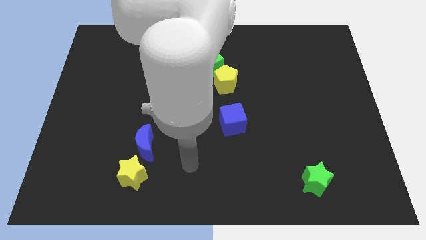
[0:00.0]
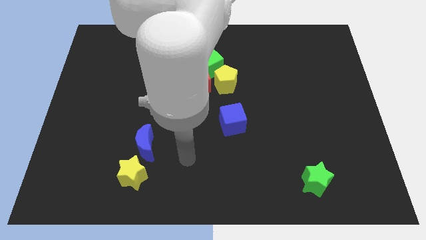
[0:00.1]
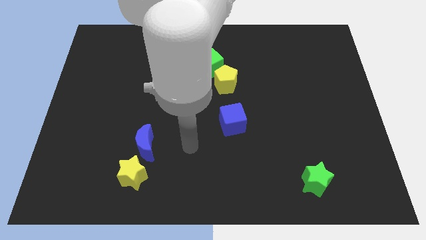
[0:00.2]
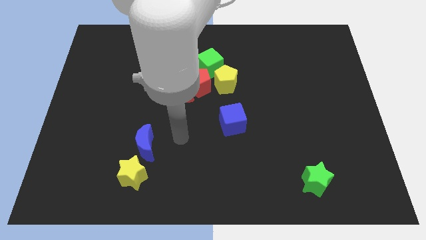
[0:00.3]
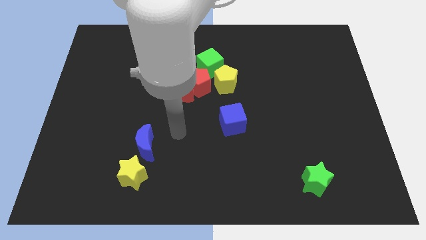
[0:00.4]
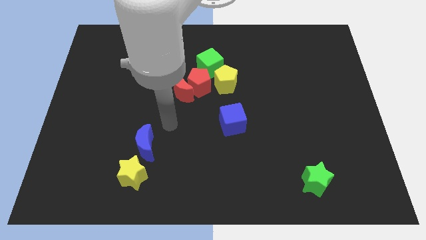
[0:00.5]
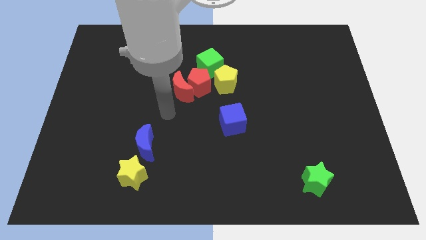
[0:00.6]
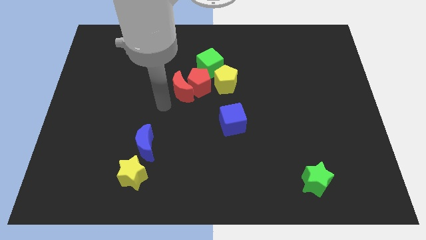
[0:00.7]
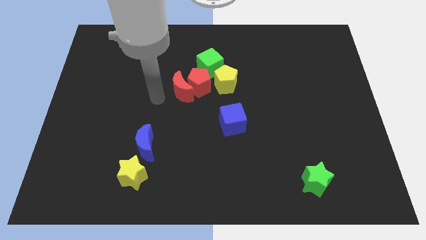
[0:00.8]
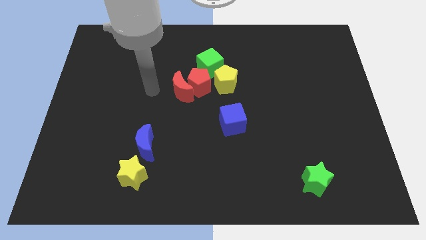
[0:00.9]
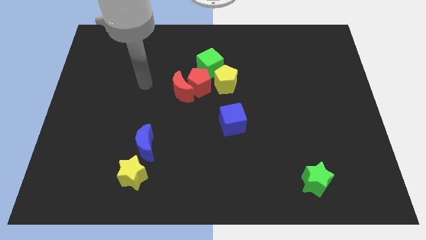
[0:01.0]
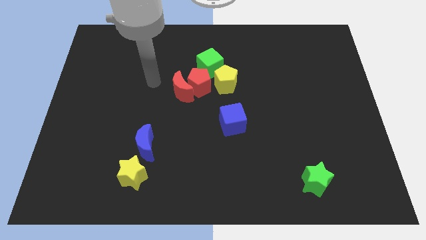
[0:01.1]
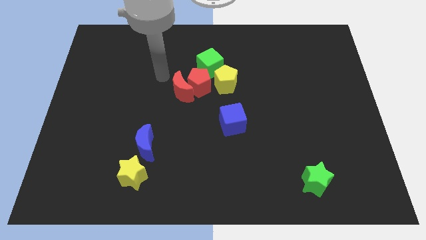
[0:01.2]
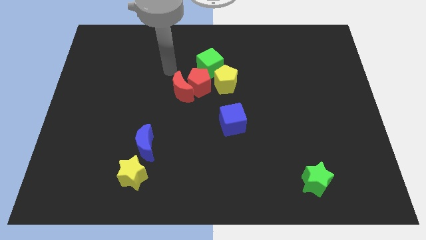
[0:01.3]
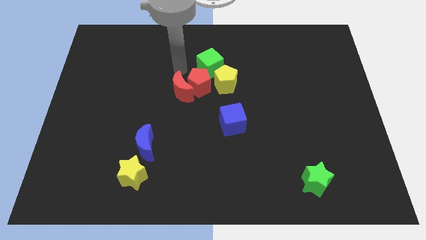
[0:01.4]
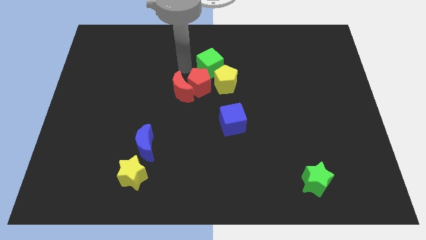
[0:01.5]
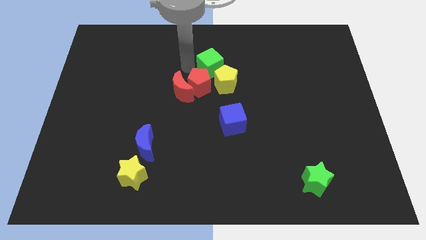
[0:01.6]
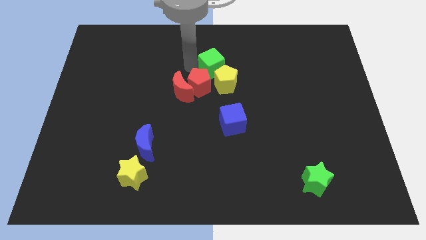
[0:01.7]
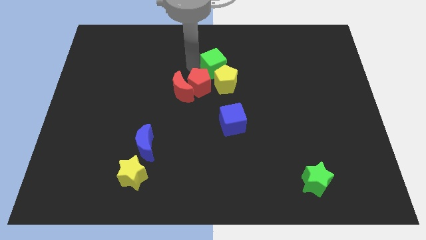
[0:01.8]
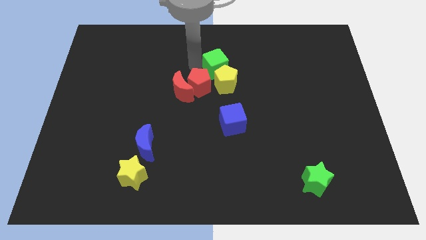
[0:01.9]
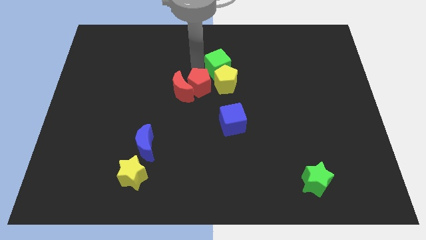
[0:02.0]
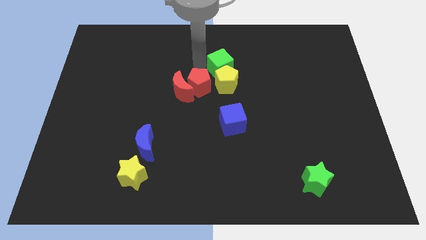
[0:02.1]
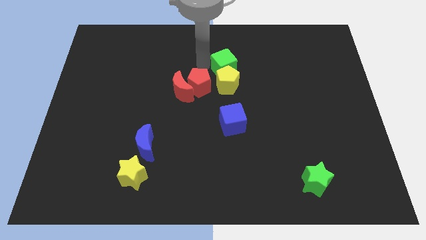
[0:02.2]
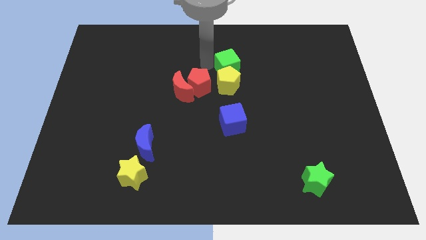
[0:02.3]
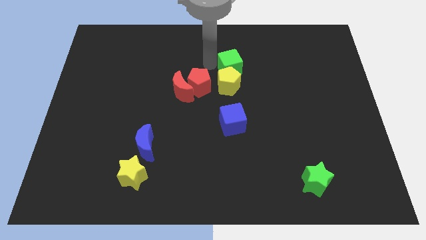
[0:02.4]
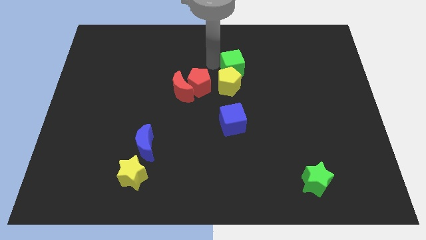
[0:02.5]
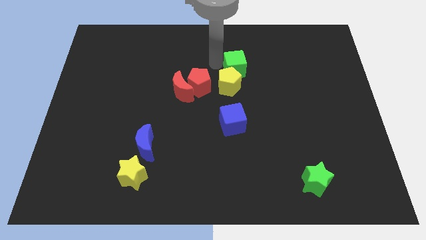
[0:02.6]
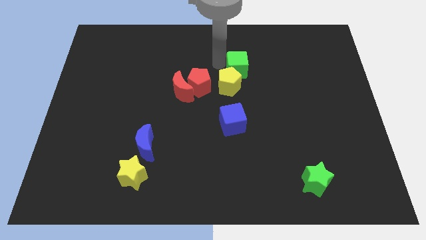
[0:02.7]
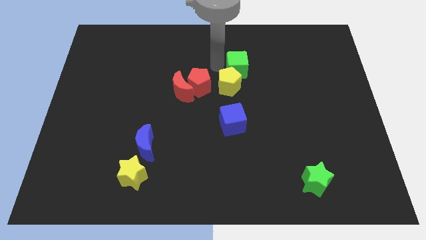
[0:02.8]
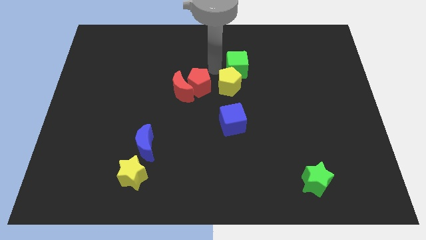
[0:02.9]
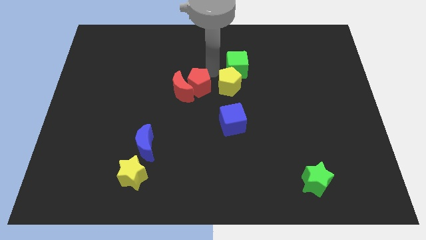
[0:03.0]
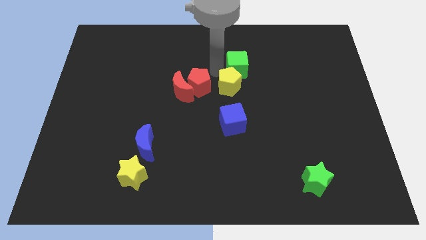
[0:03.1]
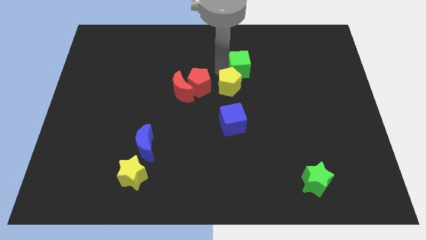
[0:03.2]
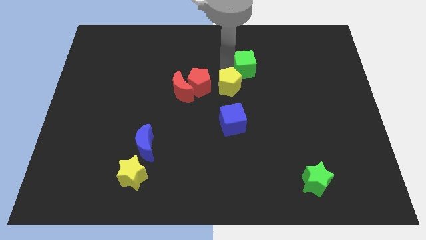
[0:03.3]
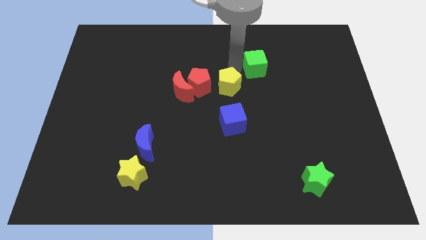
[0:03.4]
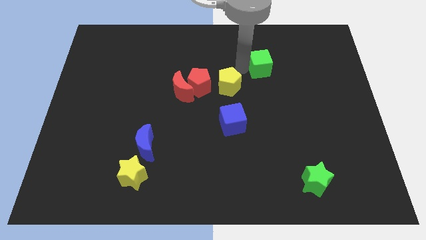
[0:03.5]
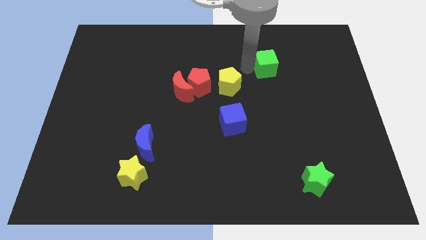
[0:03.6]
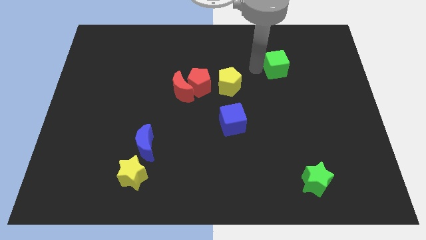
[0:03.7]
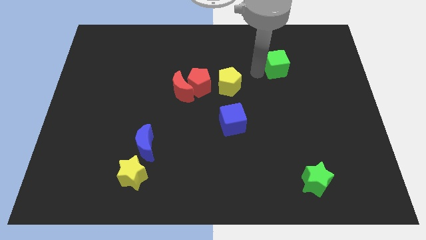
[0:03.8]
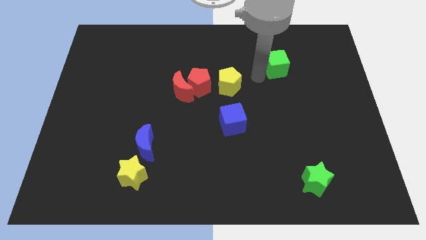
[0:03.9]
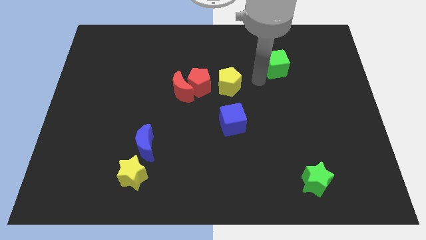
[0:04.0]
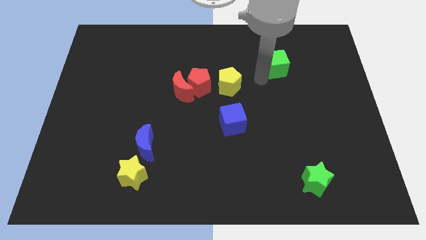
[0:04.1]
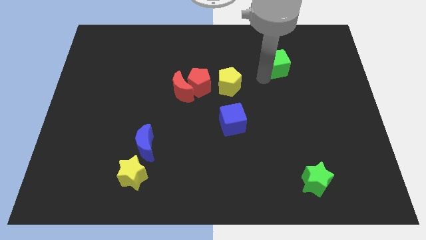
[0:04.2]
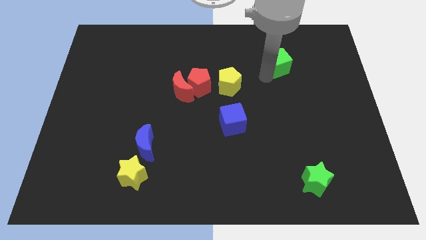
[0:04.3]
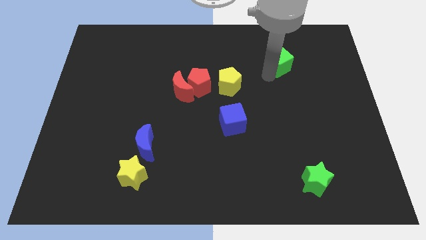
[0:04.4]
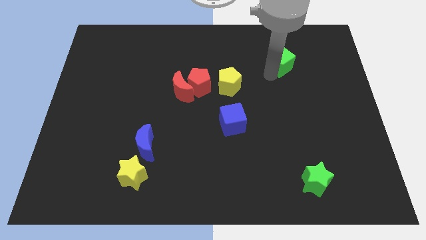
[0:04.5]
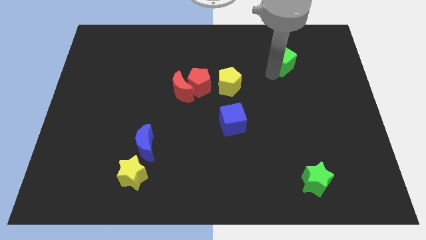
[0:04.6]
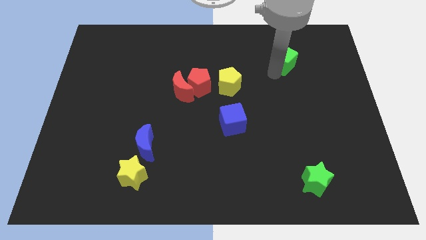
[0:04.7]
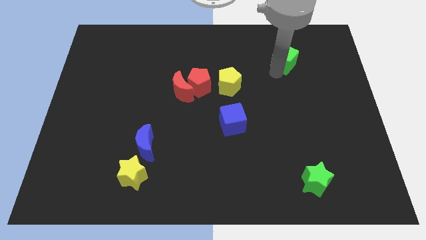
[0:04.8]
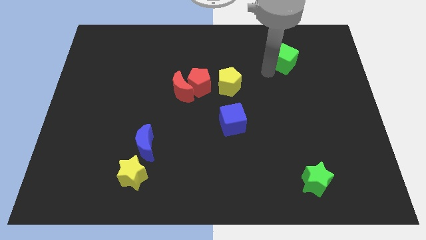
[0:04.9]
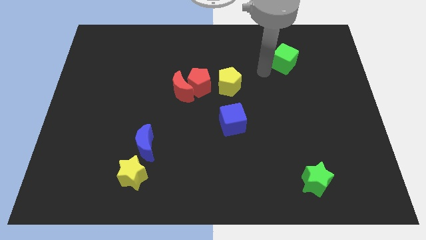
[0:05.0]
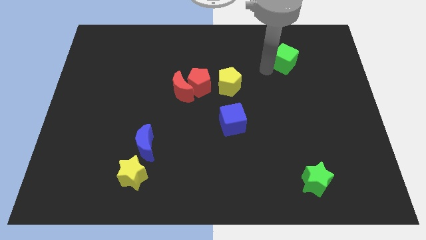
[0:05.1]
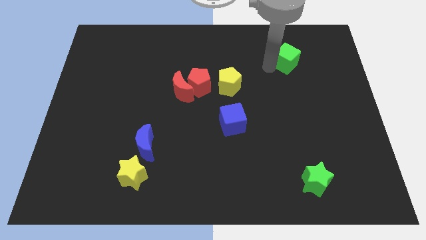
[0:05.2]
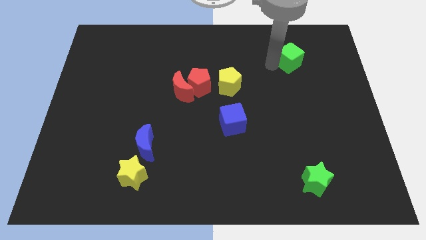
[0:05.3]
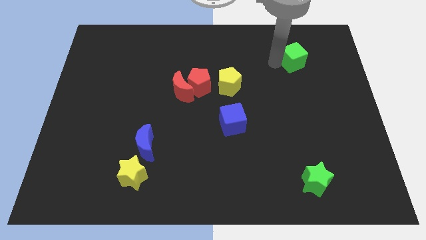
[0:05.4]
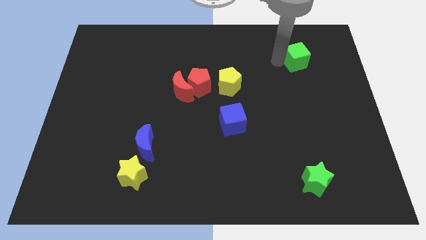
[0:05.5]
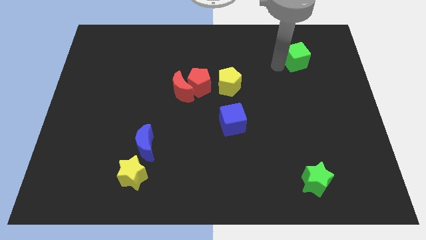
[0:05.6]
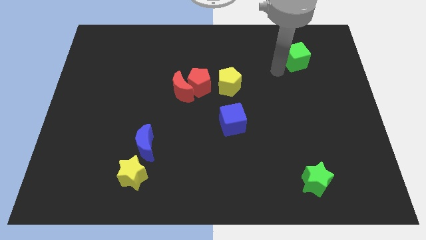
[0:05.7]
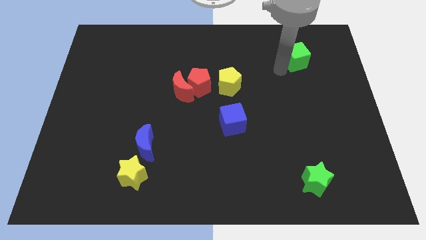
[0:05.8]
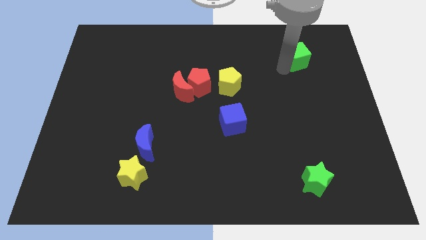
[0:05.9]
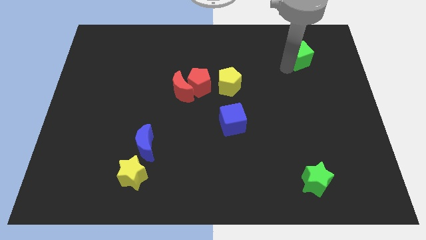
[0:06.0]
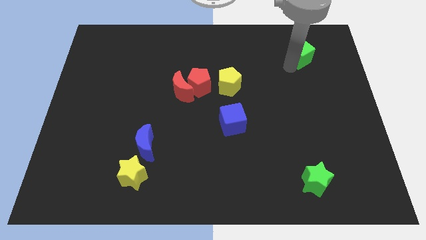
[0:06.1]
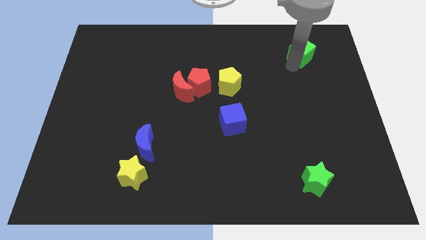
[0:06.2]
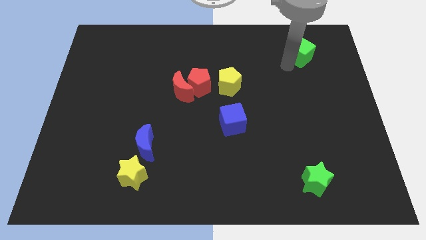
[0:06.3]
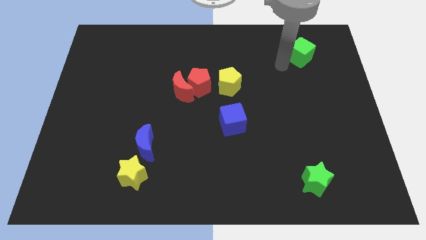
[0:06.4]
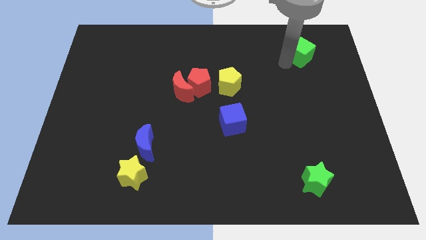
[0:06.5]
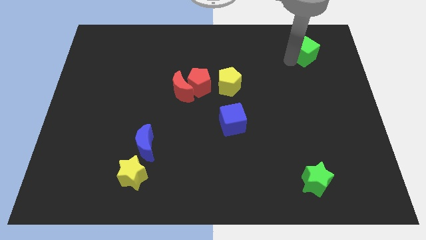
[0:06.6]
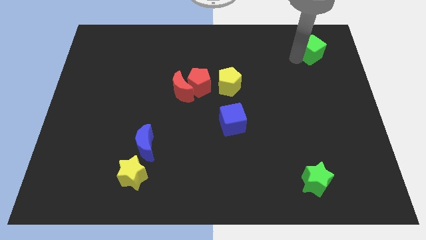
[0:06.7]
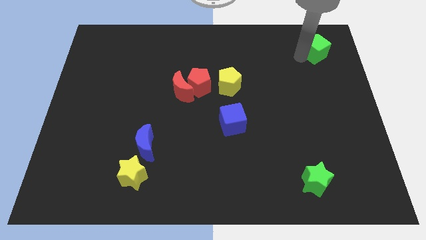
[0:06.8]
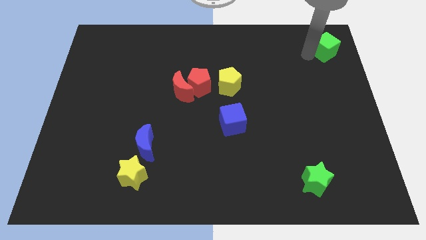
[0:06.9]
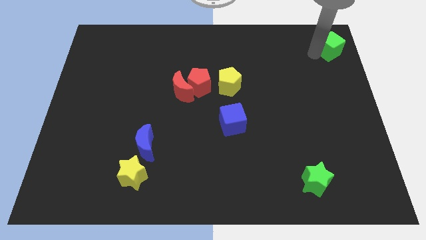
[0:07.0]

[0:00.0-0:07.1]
put the green cube to the top right

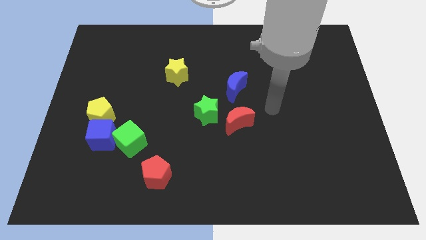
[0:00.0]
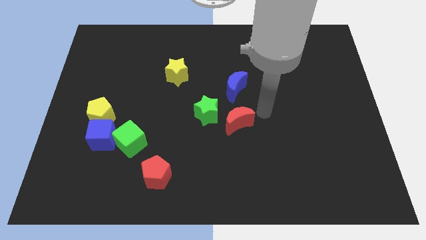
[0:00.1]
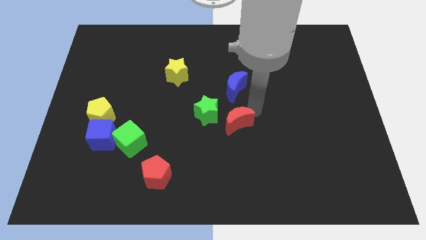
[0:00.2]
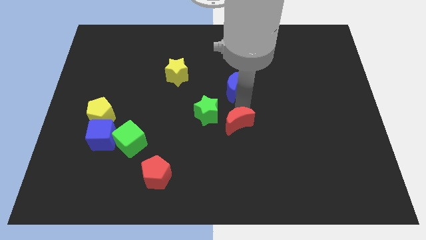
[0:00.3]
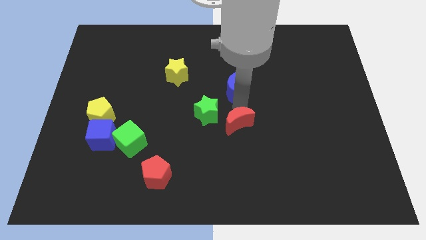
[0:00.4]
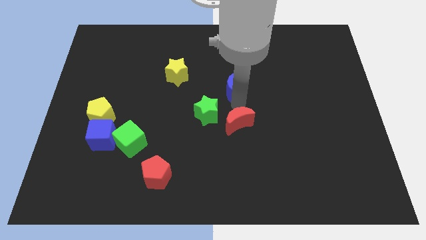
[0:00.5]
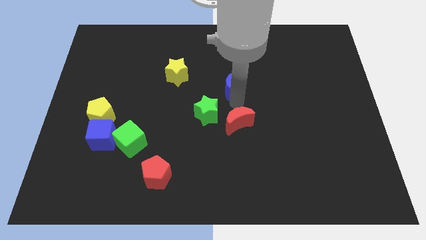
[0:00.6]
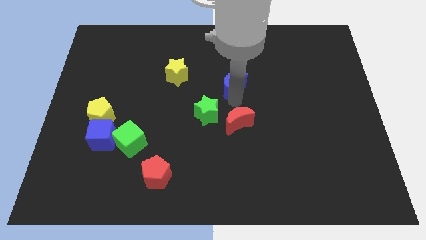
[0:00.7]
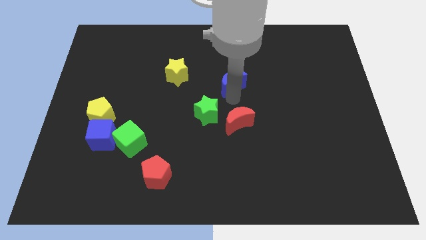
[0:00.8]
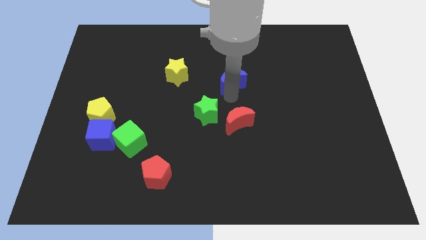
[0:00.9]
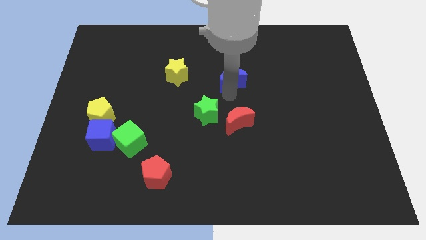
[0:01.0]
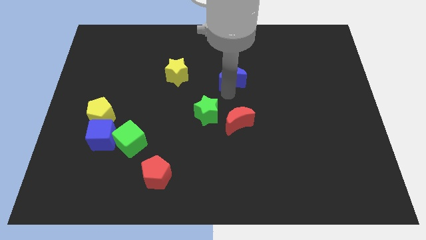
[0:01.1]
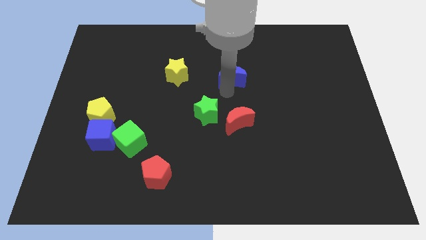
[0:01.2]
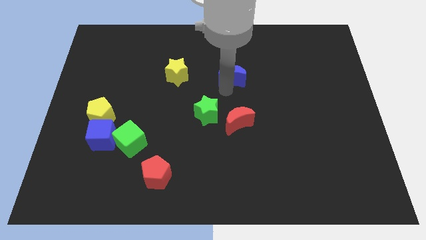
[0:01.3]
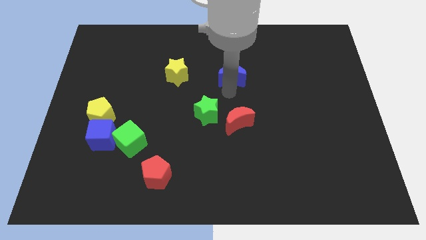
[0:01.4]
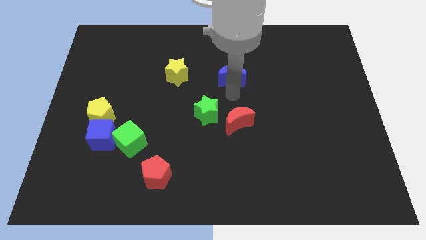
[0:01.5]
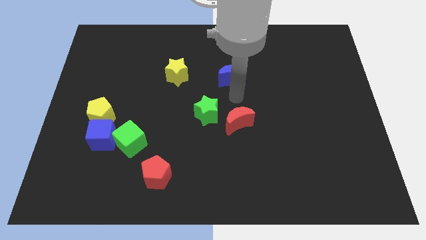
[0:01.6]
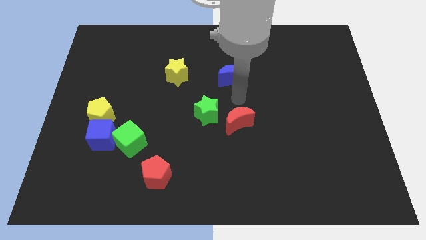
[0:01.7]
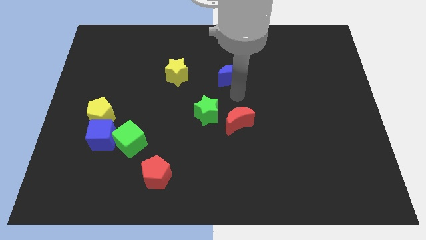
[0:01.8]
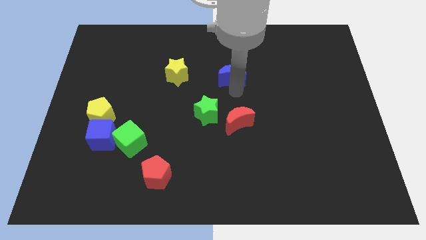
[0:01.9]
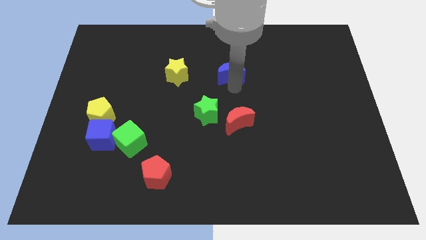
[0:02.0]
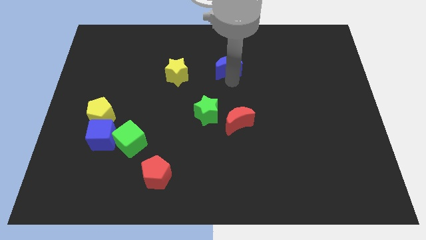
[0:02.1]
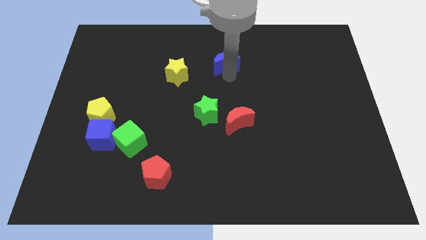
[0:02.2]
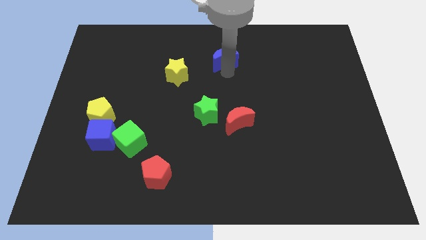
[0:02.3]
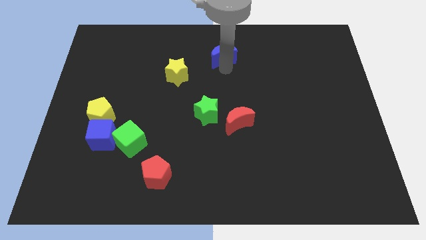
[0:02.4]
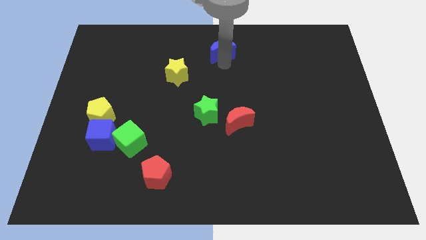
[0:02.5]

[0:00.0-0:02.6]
push the blue moon to the top
